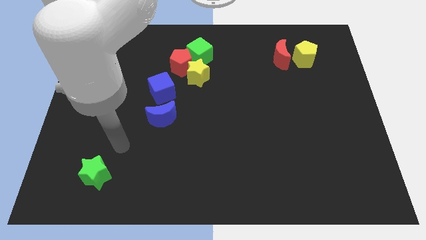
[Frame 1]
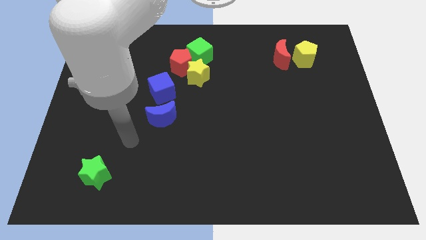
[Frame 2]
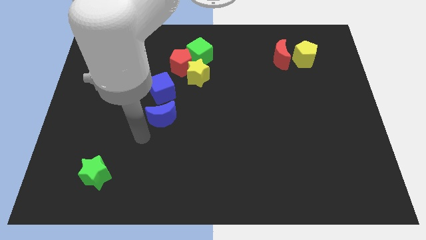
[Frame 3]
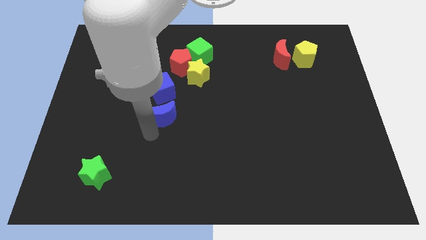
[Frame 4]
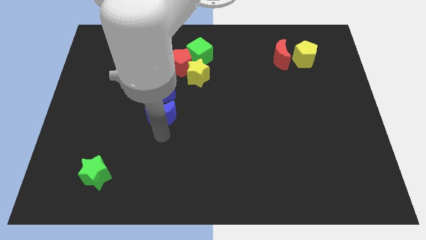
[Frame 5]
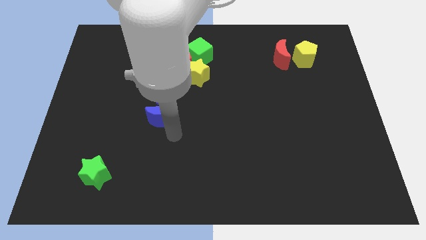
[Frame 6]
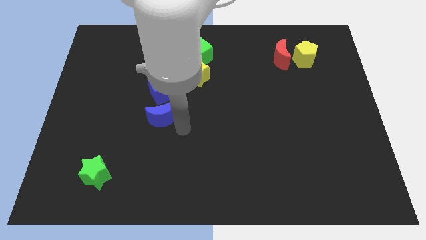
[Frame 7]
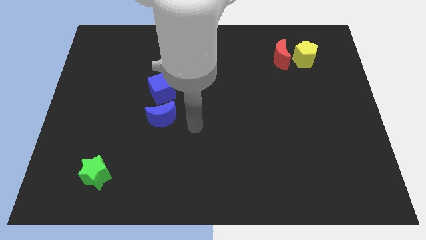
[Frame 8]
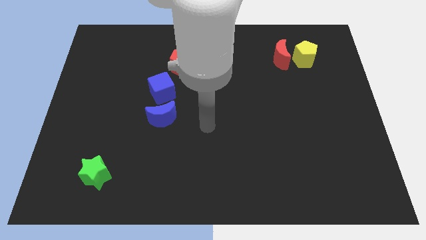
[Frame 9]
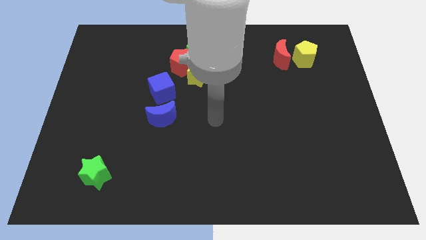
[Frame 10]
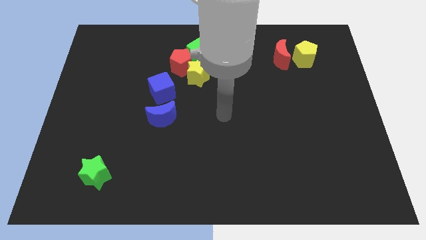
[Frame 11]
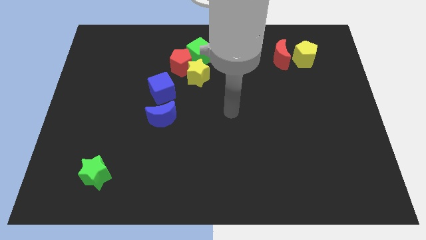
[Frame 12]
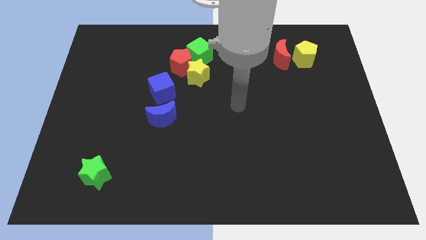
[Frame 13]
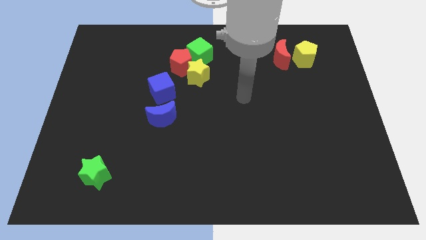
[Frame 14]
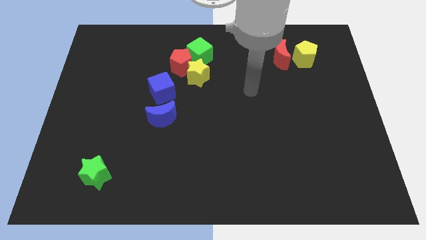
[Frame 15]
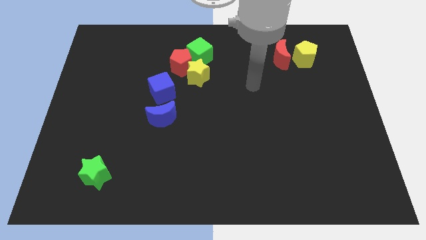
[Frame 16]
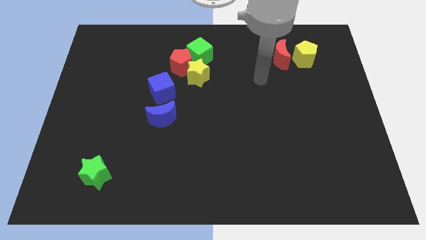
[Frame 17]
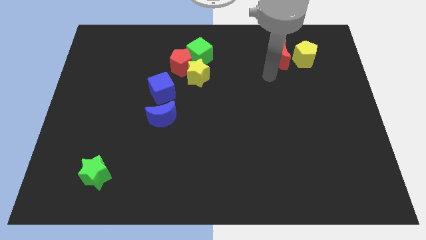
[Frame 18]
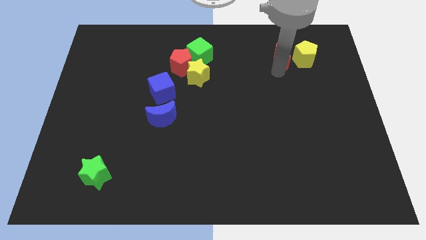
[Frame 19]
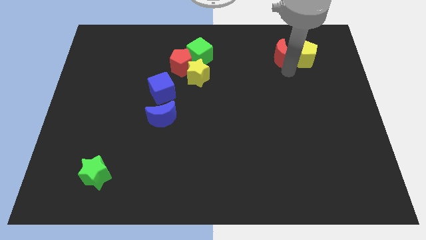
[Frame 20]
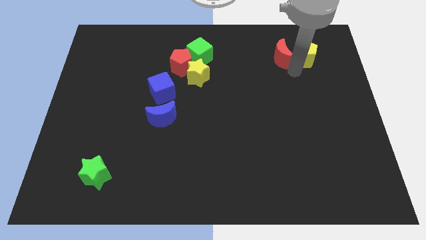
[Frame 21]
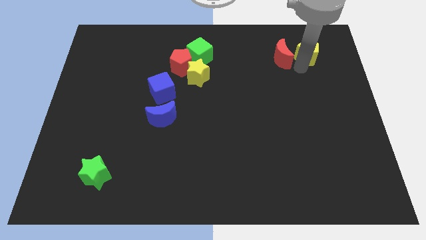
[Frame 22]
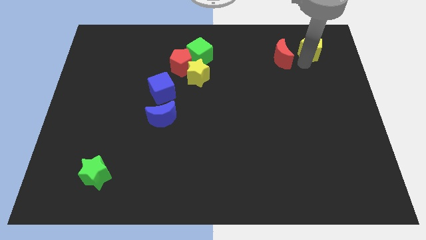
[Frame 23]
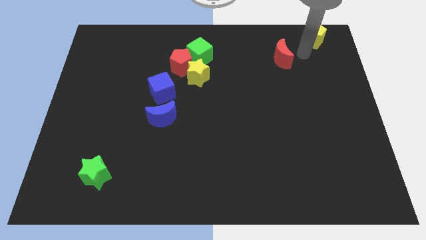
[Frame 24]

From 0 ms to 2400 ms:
separate the red moon from the yellow pentagon

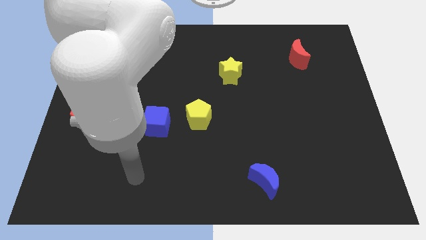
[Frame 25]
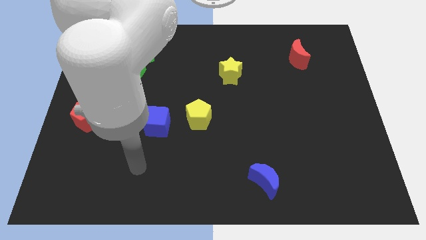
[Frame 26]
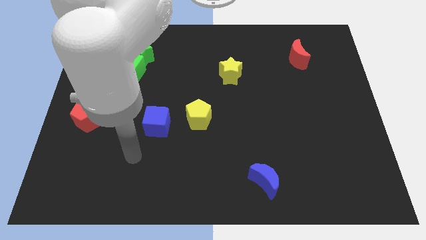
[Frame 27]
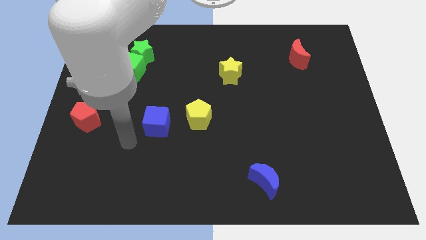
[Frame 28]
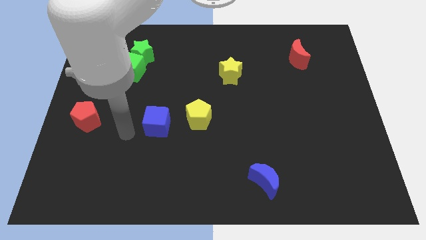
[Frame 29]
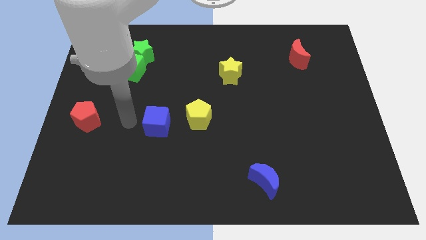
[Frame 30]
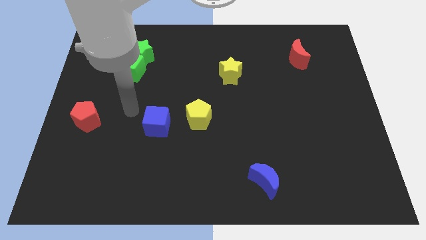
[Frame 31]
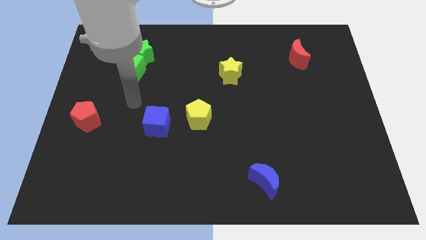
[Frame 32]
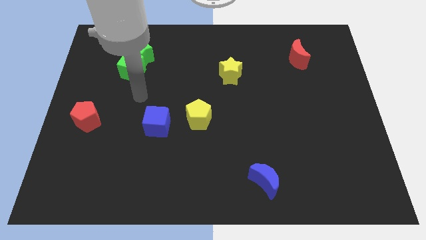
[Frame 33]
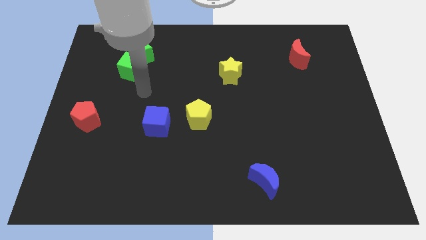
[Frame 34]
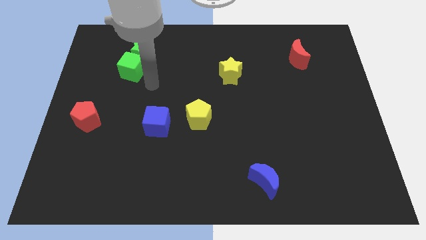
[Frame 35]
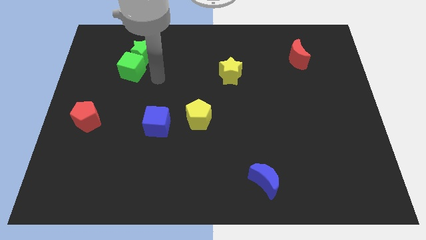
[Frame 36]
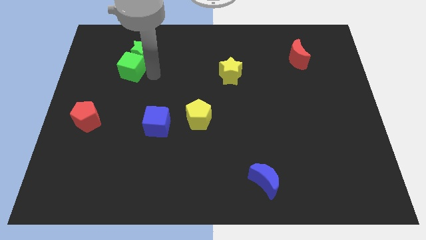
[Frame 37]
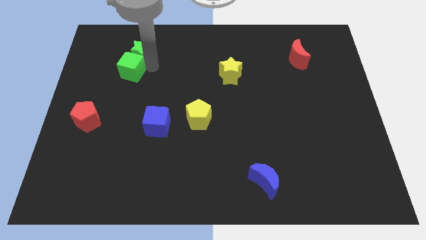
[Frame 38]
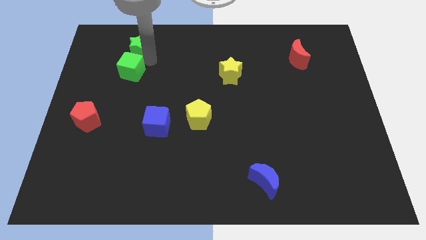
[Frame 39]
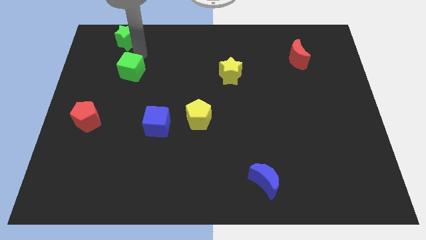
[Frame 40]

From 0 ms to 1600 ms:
move the green cube away from the green star

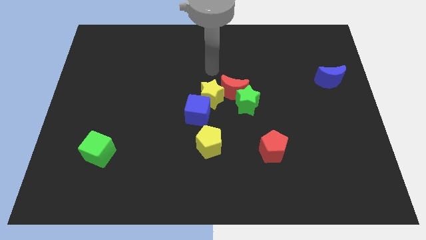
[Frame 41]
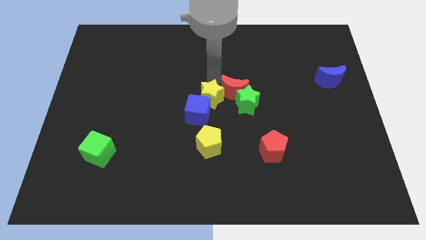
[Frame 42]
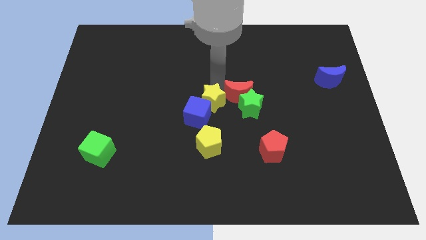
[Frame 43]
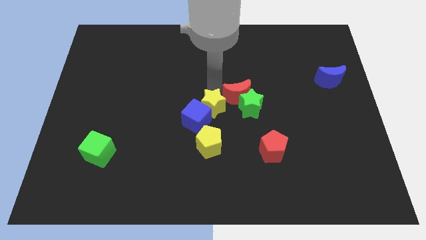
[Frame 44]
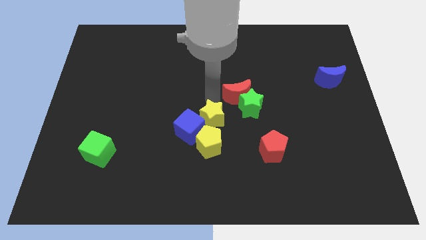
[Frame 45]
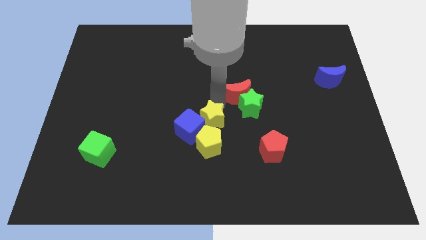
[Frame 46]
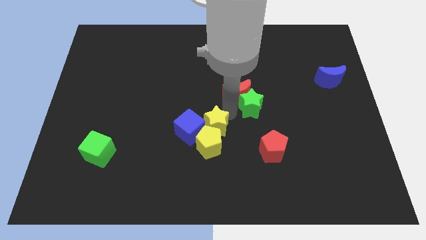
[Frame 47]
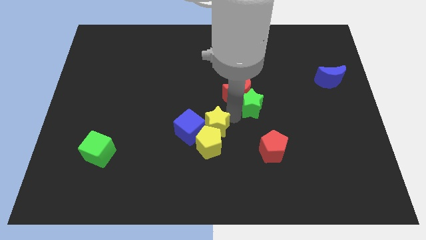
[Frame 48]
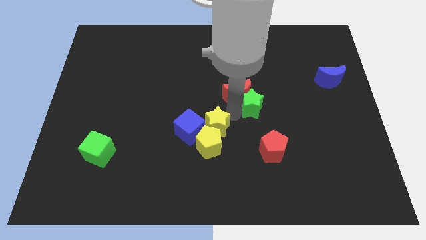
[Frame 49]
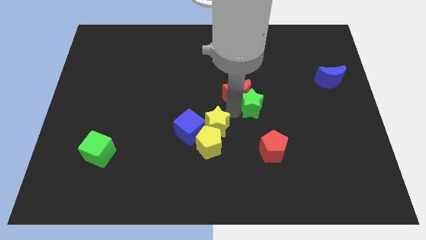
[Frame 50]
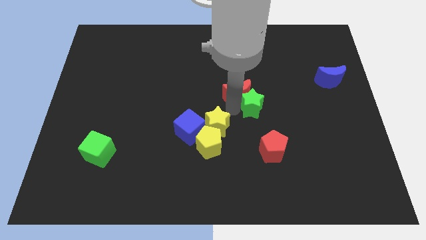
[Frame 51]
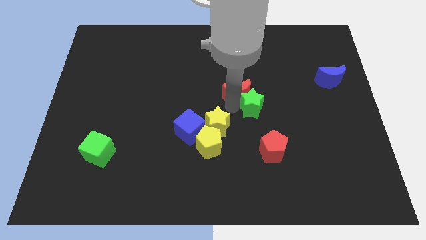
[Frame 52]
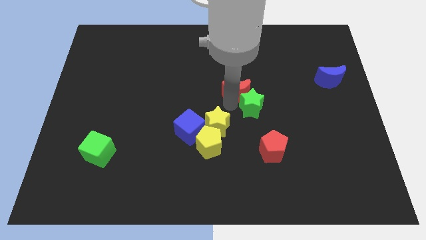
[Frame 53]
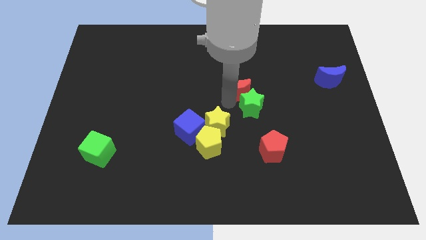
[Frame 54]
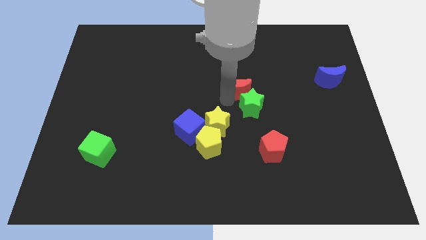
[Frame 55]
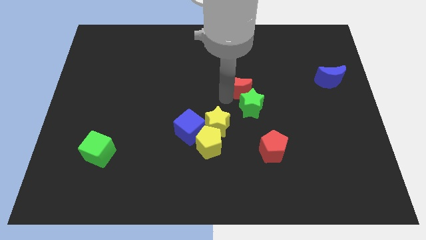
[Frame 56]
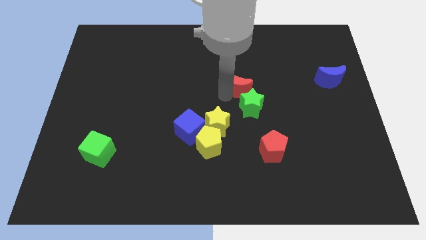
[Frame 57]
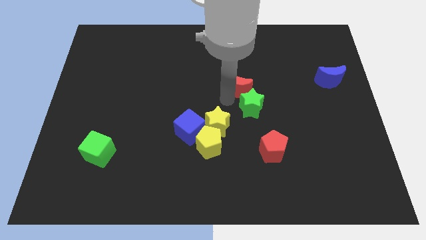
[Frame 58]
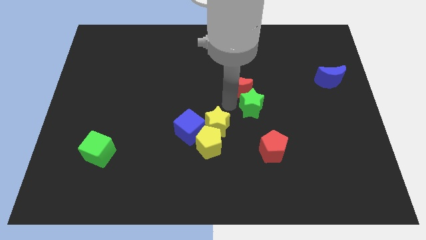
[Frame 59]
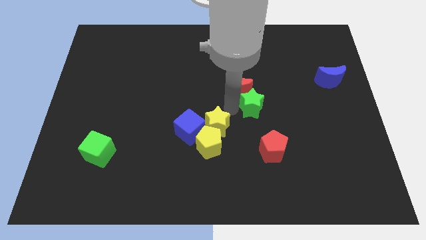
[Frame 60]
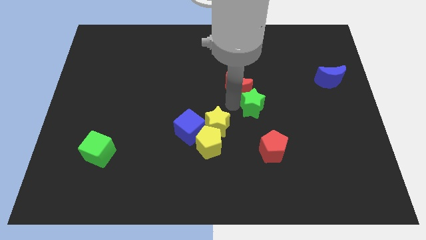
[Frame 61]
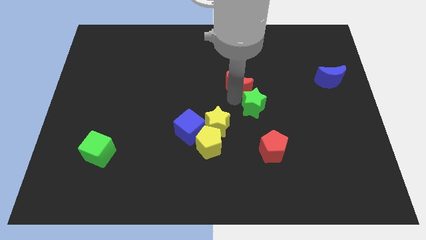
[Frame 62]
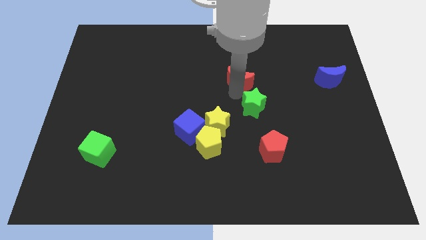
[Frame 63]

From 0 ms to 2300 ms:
move the red moon away from the green star and yellow star

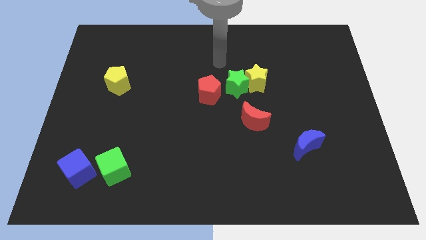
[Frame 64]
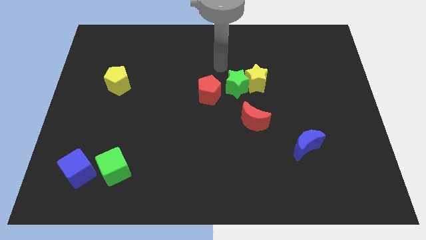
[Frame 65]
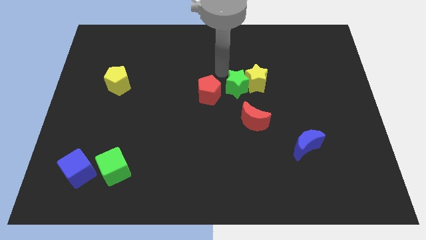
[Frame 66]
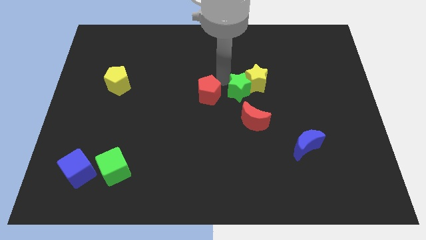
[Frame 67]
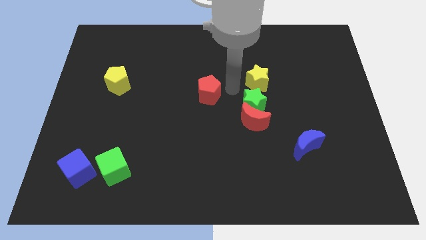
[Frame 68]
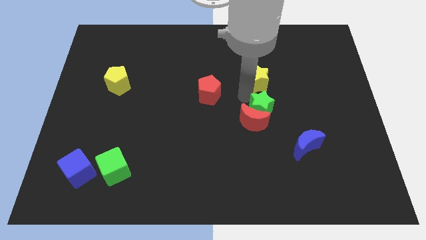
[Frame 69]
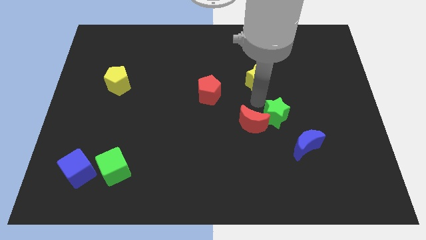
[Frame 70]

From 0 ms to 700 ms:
separate the yellow star from the green star

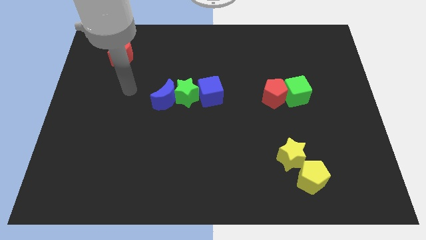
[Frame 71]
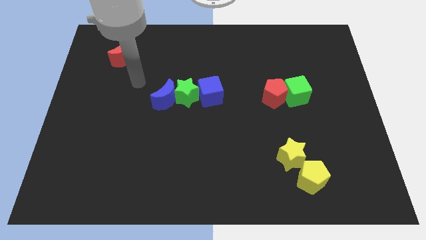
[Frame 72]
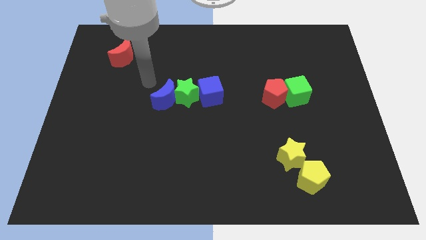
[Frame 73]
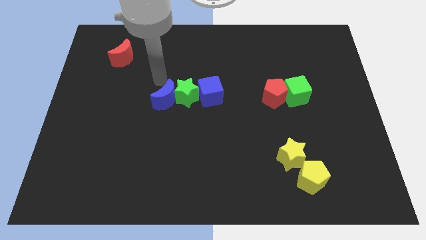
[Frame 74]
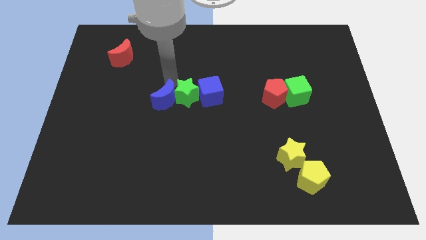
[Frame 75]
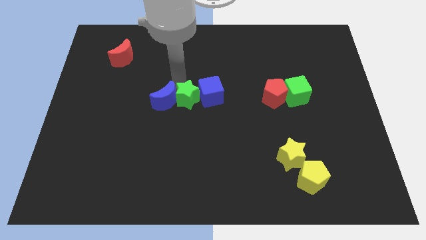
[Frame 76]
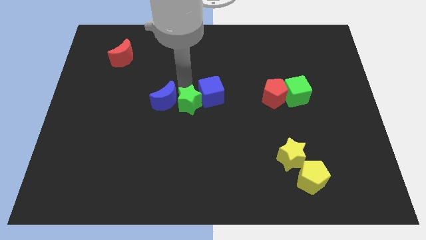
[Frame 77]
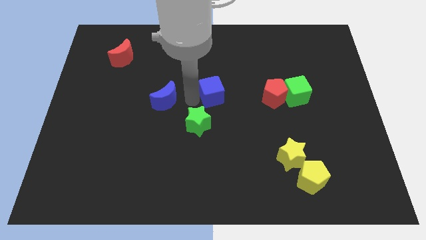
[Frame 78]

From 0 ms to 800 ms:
move the blue moon away from the green star

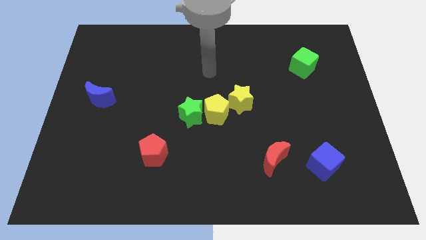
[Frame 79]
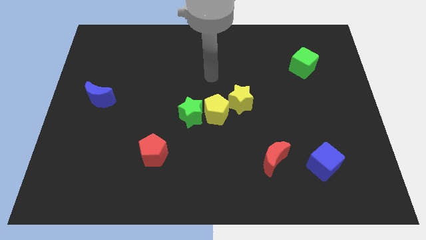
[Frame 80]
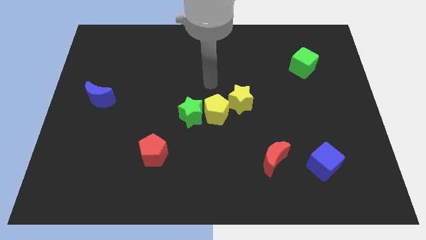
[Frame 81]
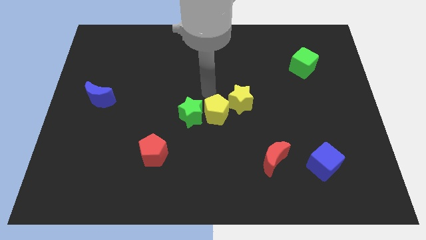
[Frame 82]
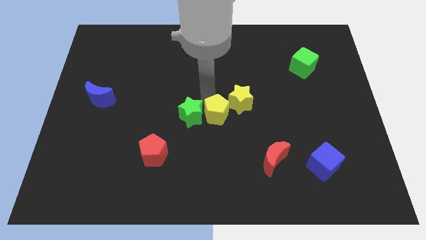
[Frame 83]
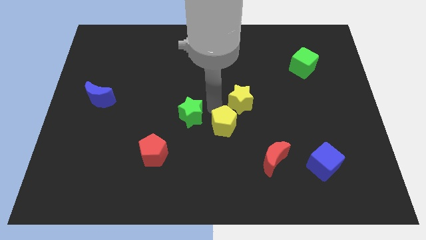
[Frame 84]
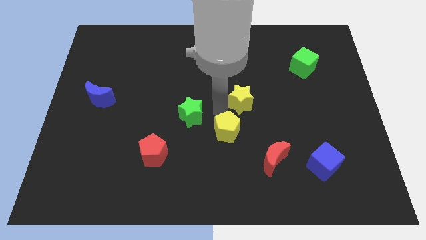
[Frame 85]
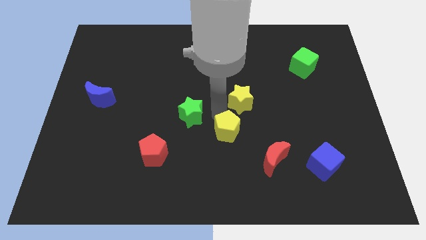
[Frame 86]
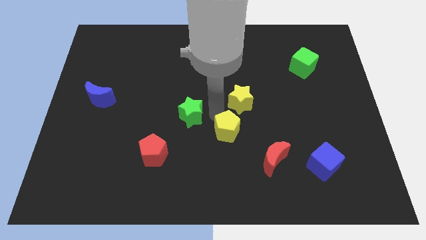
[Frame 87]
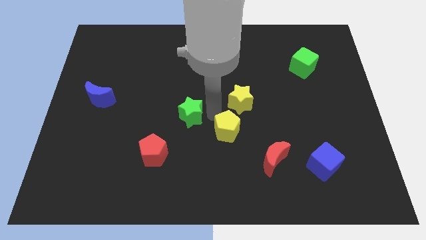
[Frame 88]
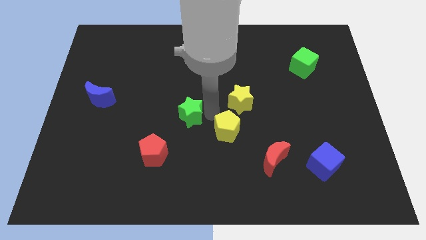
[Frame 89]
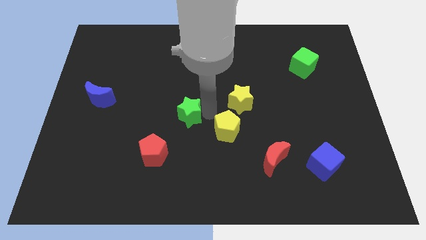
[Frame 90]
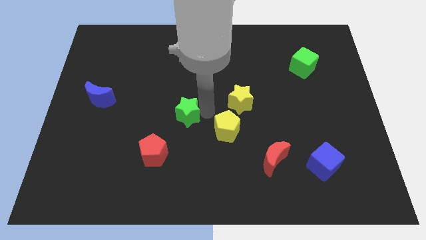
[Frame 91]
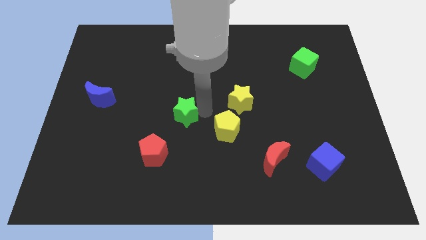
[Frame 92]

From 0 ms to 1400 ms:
pull the green star apart from the yellow pentagon

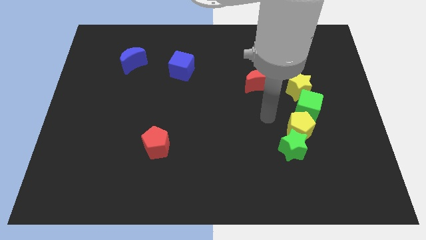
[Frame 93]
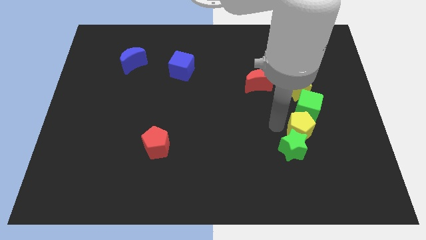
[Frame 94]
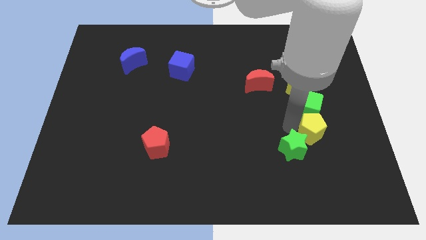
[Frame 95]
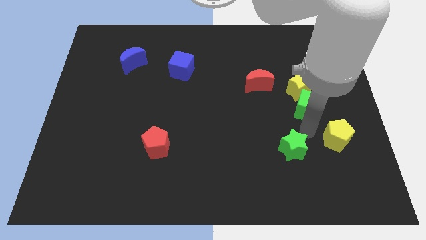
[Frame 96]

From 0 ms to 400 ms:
move the green star away from the yellow pentagon
